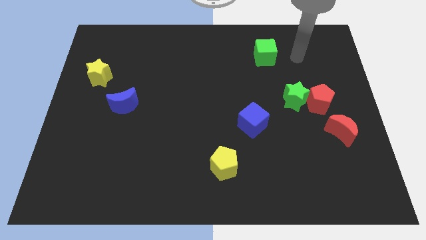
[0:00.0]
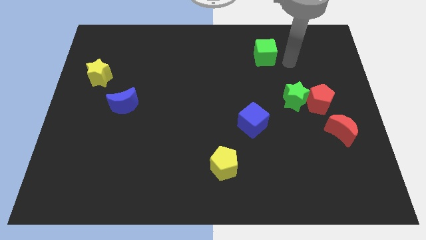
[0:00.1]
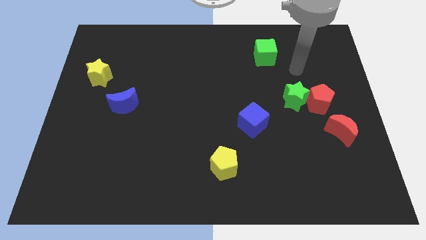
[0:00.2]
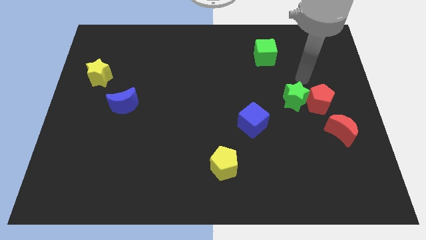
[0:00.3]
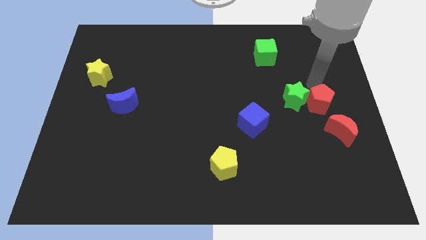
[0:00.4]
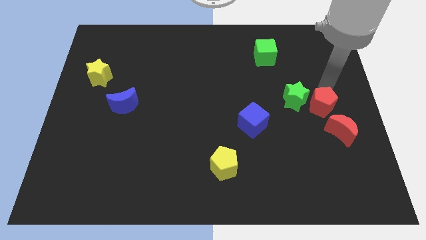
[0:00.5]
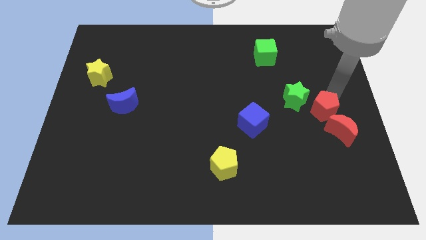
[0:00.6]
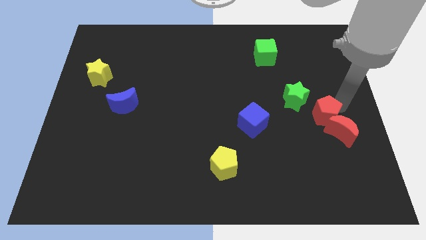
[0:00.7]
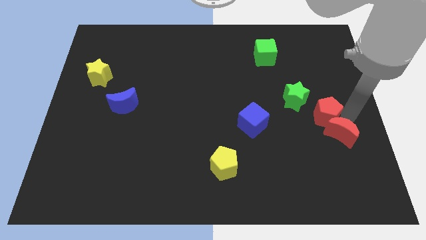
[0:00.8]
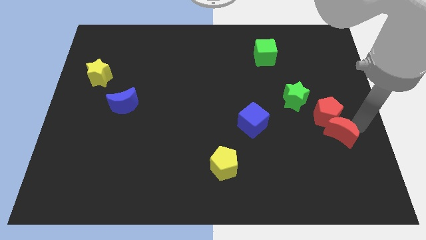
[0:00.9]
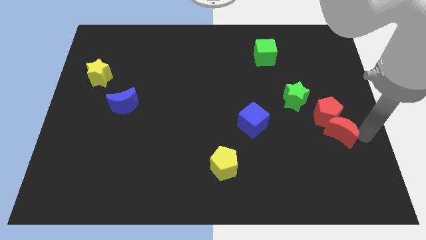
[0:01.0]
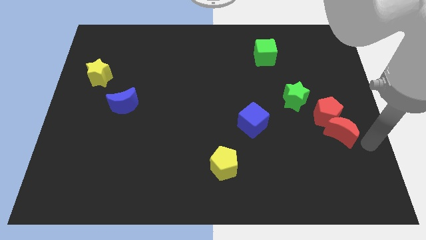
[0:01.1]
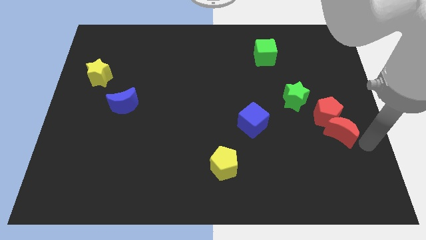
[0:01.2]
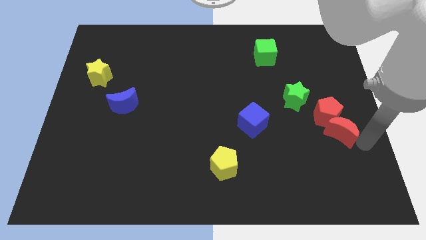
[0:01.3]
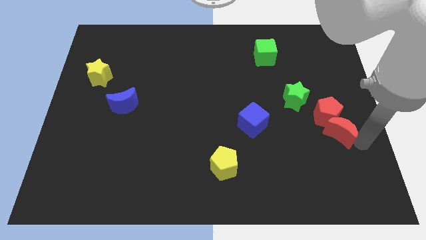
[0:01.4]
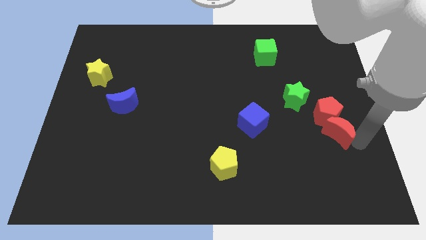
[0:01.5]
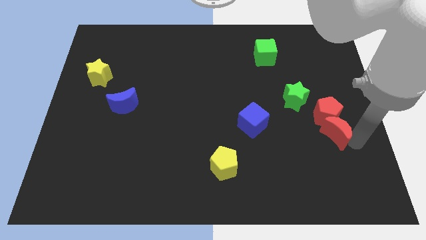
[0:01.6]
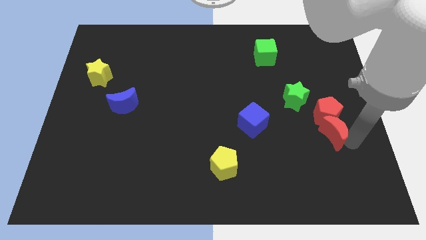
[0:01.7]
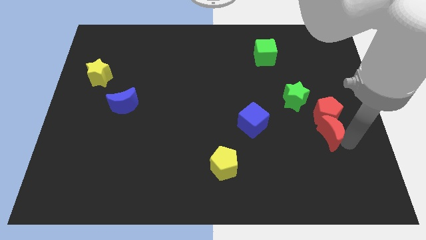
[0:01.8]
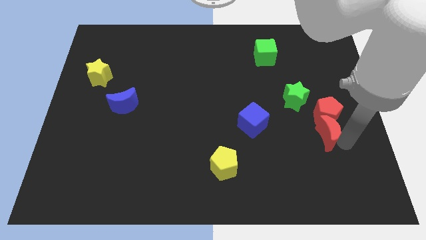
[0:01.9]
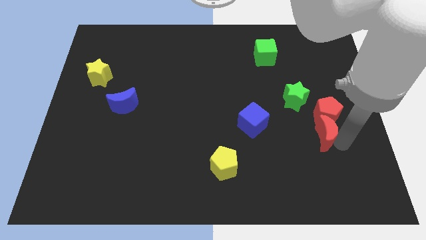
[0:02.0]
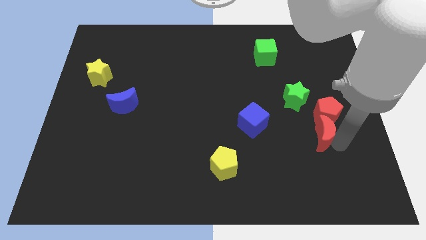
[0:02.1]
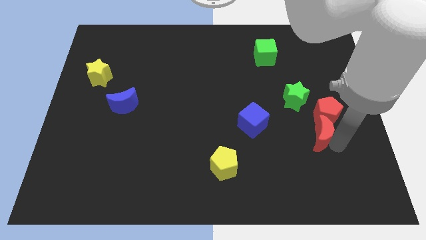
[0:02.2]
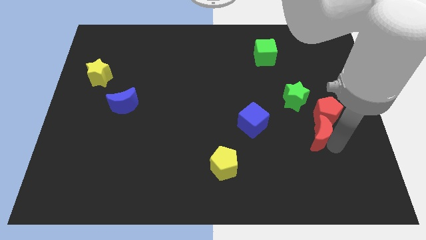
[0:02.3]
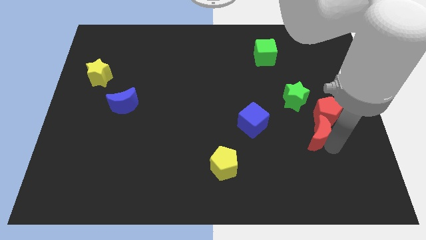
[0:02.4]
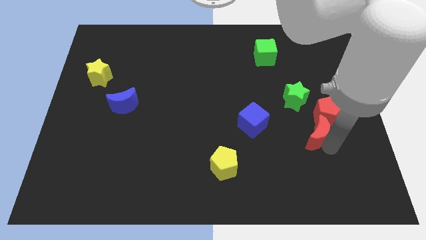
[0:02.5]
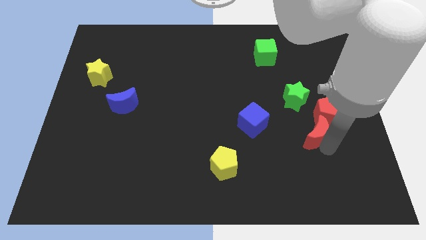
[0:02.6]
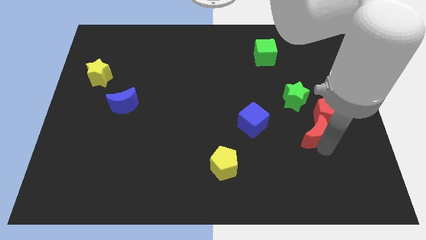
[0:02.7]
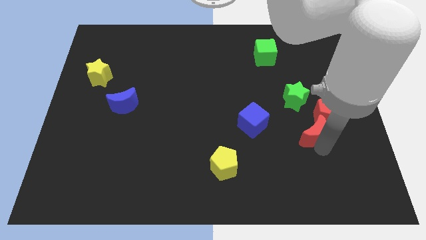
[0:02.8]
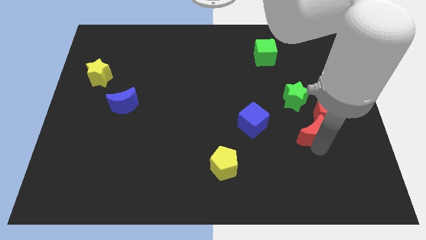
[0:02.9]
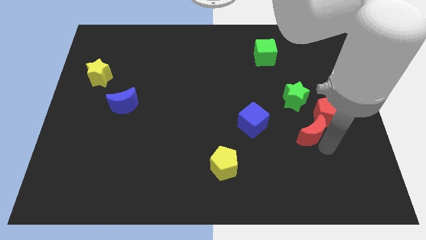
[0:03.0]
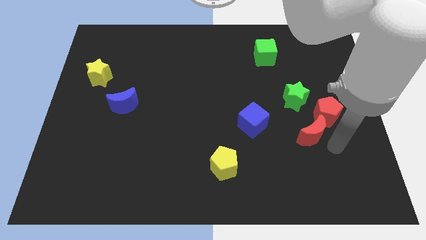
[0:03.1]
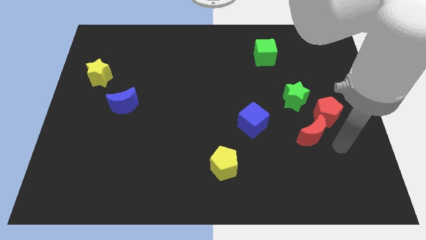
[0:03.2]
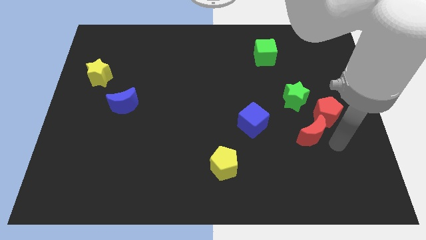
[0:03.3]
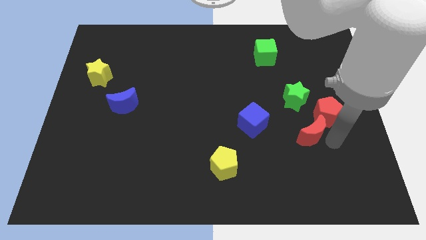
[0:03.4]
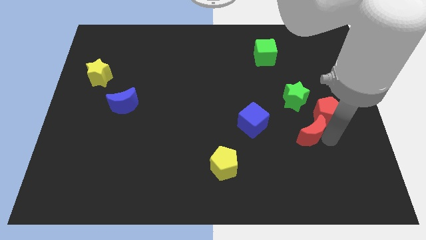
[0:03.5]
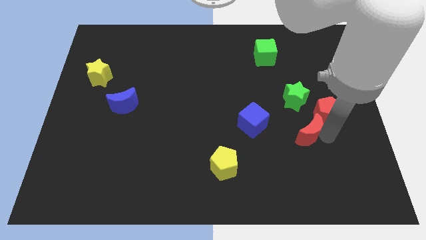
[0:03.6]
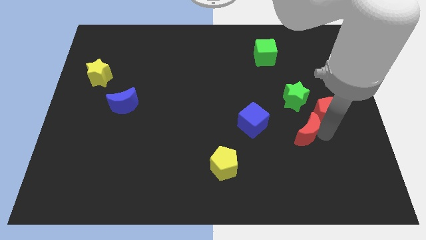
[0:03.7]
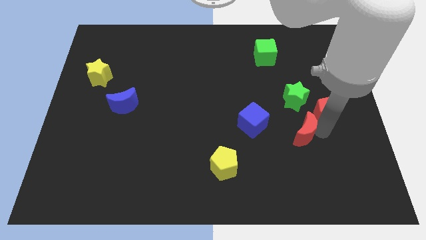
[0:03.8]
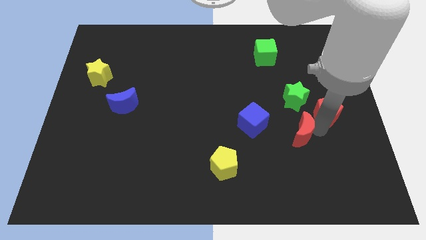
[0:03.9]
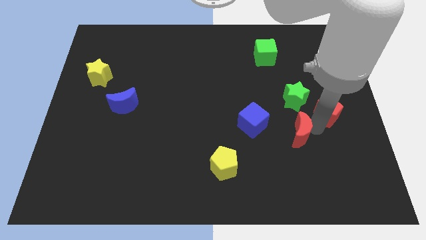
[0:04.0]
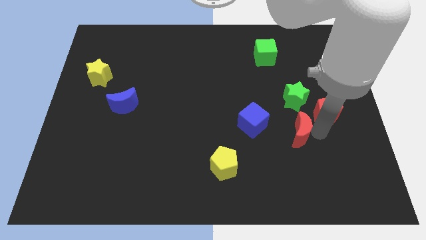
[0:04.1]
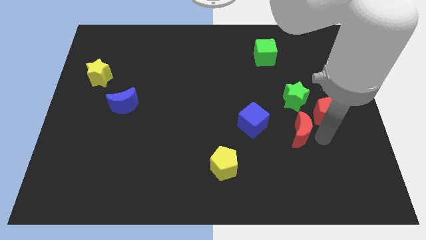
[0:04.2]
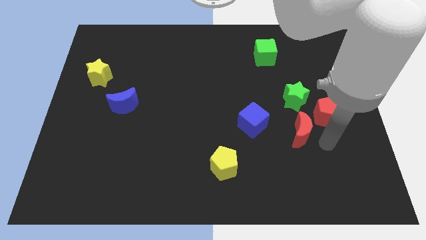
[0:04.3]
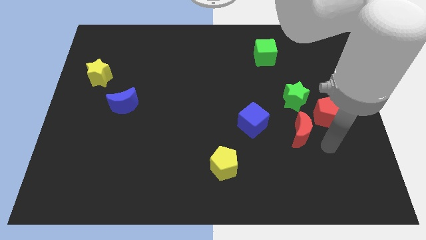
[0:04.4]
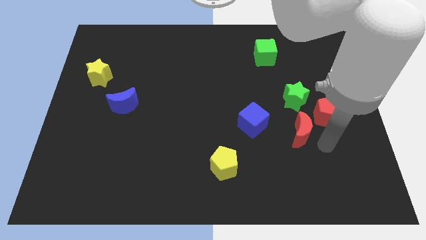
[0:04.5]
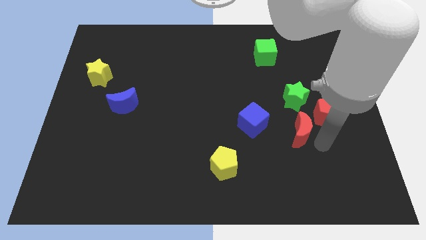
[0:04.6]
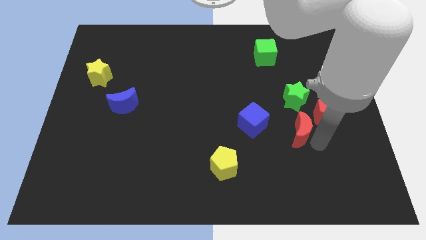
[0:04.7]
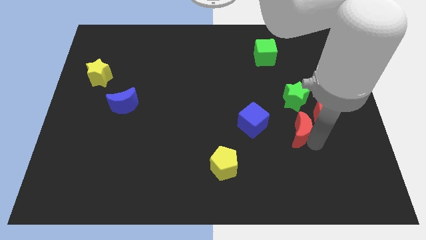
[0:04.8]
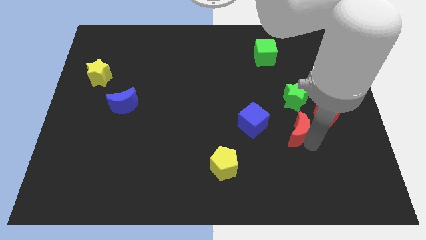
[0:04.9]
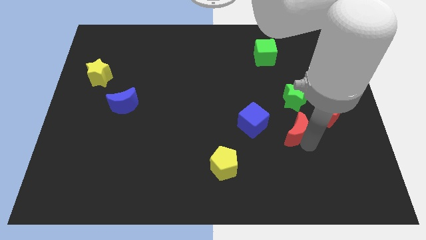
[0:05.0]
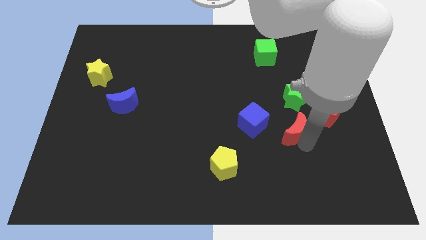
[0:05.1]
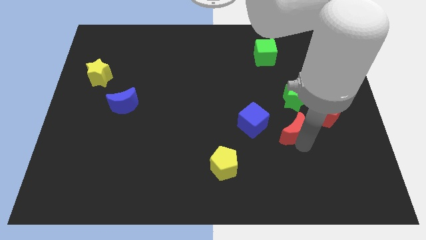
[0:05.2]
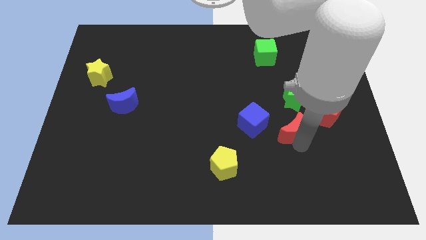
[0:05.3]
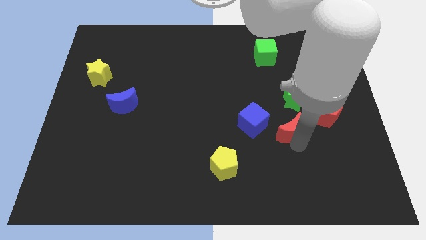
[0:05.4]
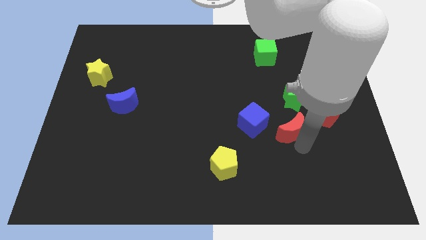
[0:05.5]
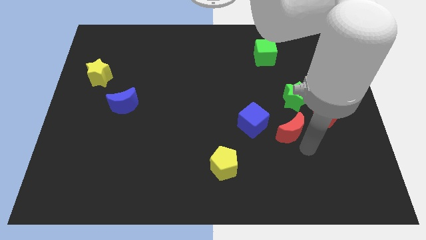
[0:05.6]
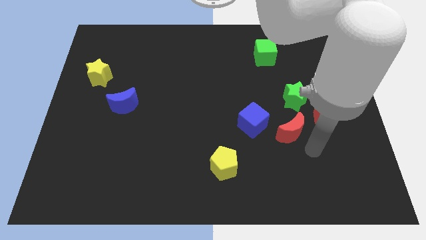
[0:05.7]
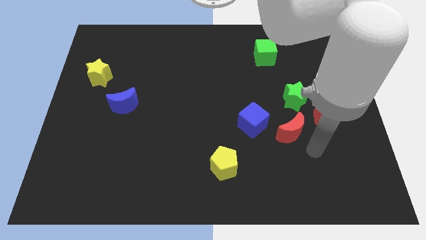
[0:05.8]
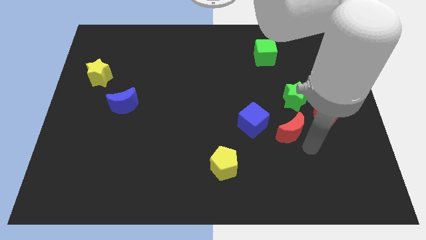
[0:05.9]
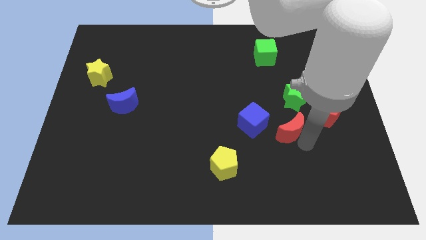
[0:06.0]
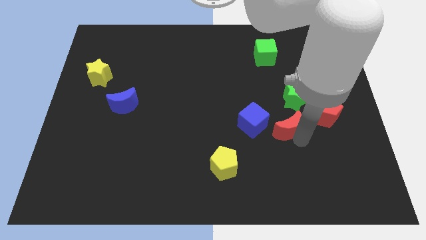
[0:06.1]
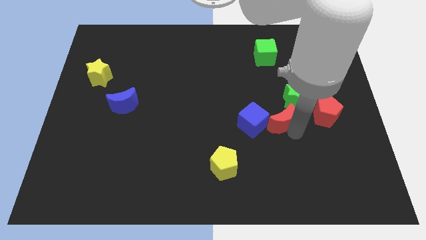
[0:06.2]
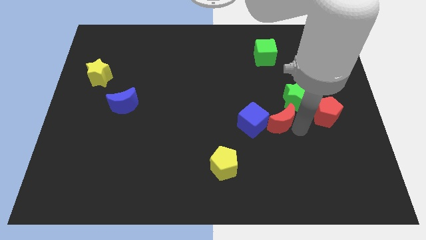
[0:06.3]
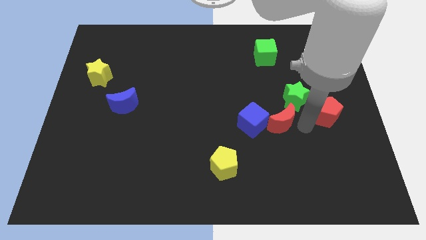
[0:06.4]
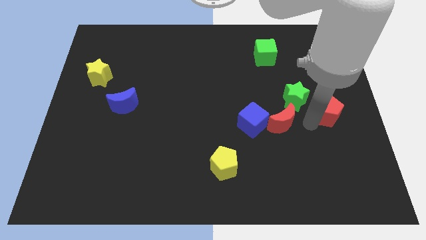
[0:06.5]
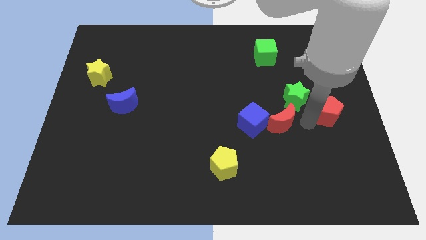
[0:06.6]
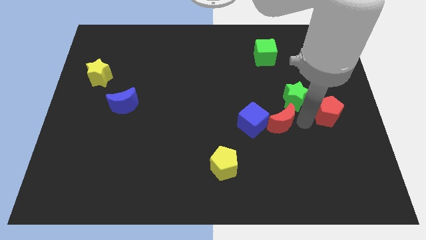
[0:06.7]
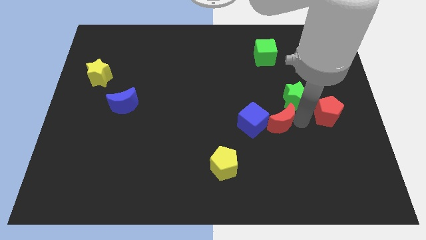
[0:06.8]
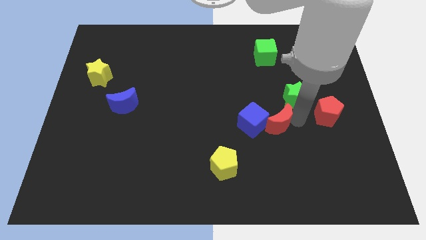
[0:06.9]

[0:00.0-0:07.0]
push the red moon close to the blue cube
